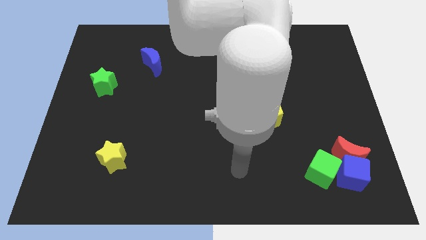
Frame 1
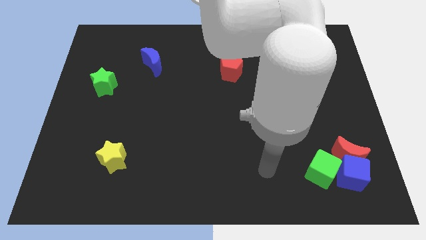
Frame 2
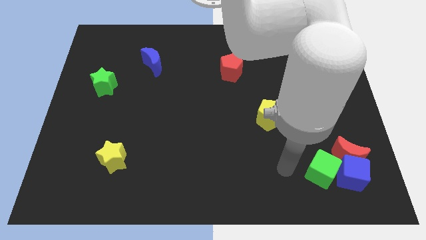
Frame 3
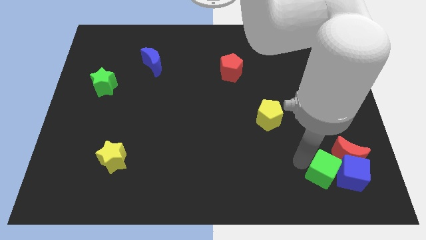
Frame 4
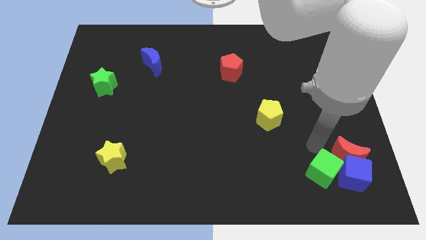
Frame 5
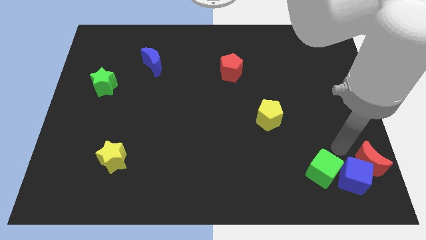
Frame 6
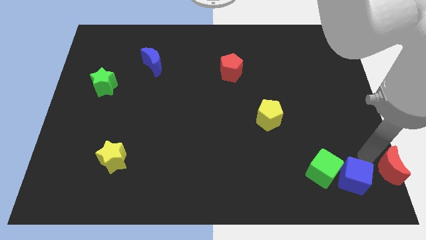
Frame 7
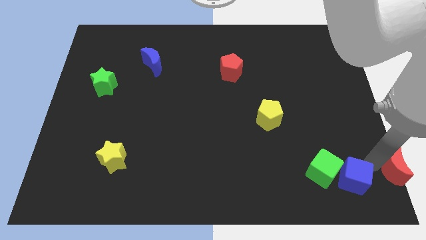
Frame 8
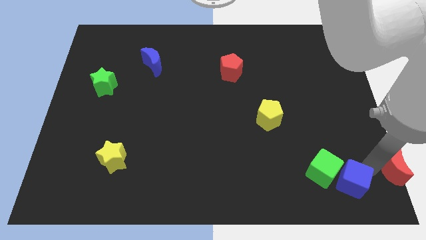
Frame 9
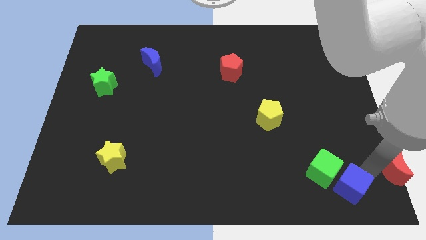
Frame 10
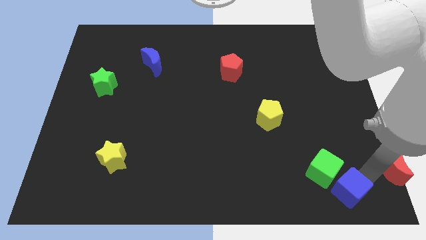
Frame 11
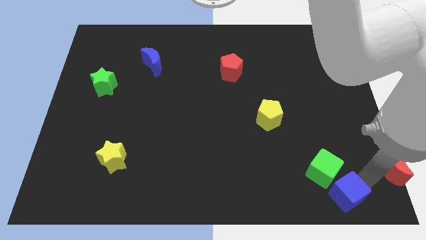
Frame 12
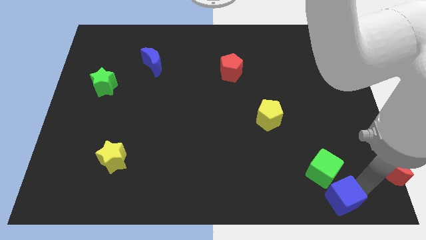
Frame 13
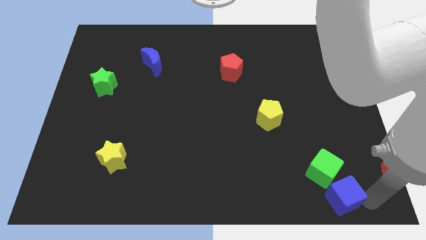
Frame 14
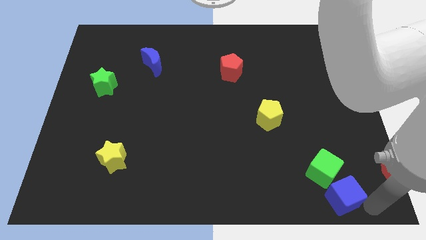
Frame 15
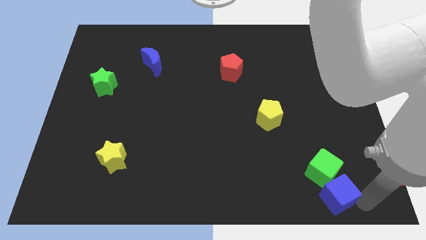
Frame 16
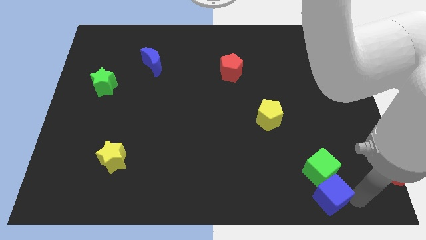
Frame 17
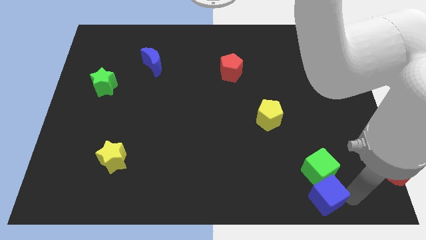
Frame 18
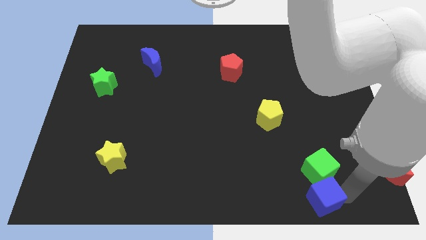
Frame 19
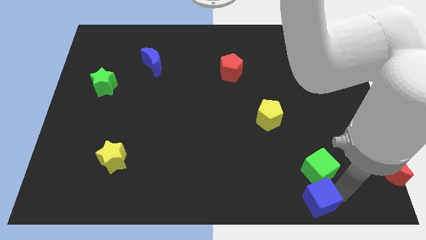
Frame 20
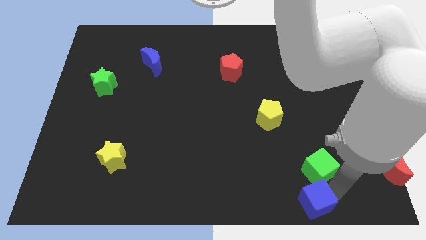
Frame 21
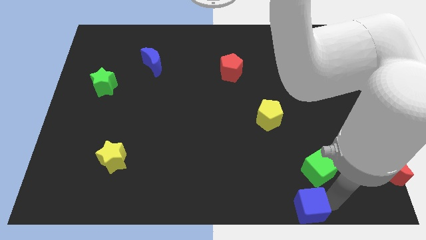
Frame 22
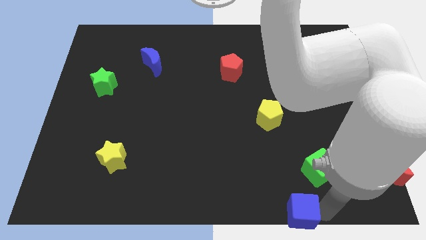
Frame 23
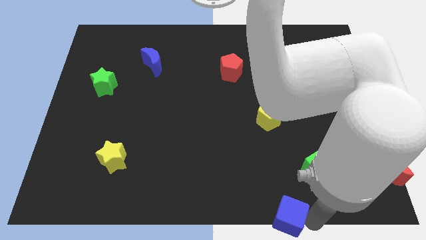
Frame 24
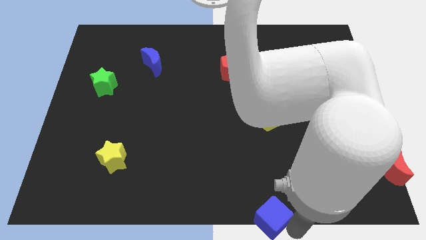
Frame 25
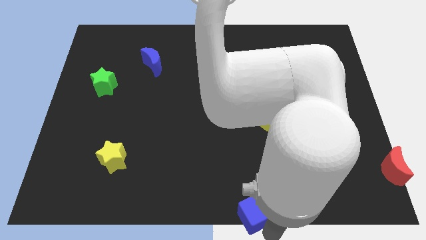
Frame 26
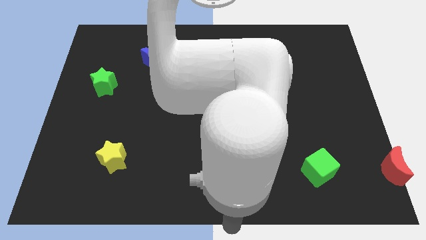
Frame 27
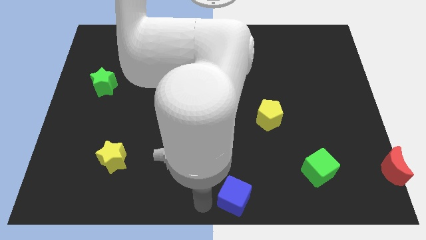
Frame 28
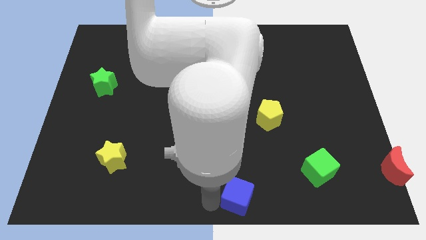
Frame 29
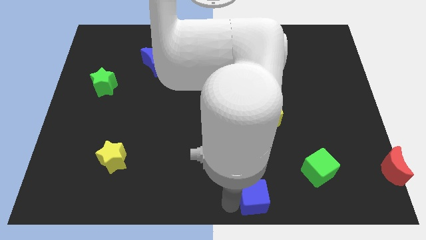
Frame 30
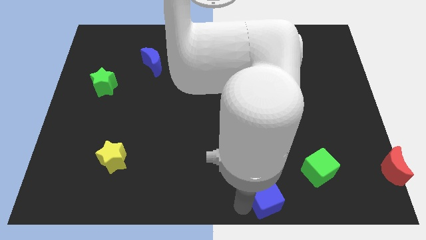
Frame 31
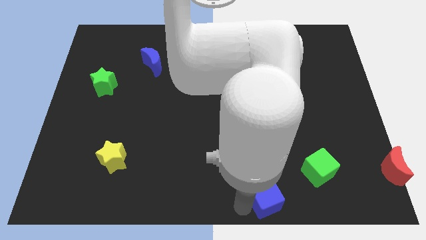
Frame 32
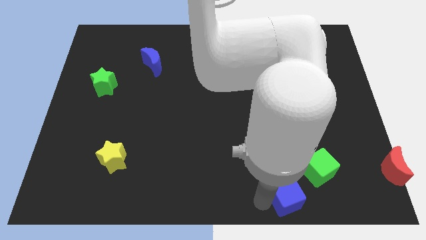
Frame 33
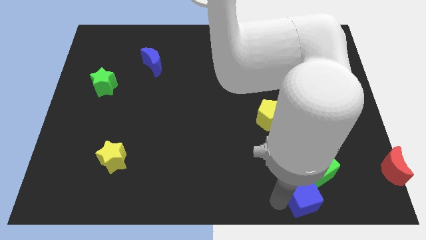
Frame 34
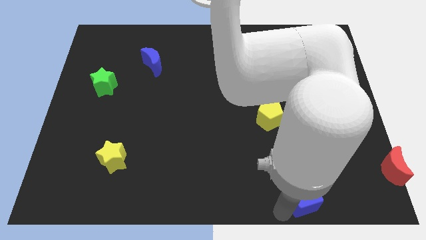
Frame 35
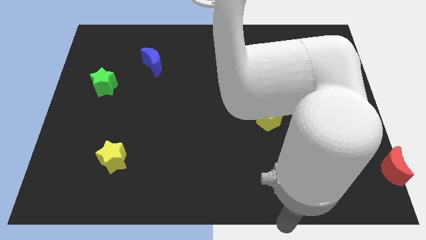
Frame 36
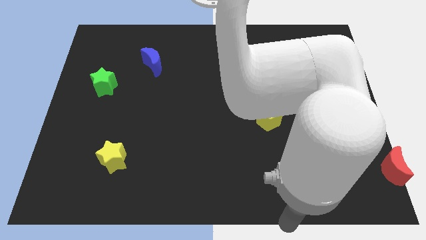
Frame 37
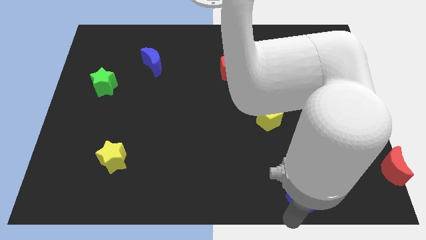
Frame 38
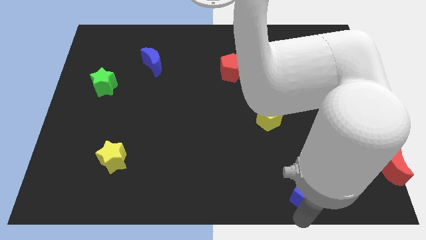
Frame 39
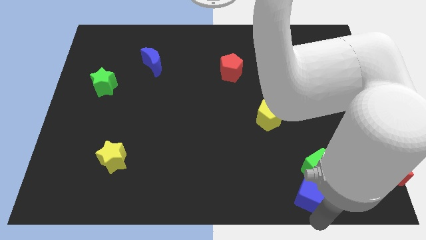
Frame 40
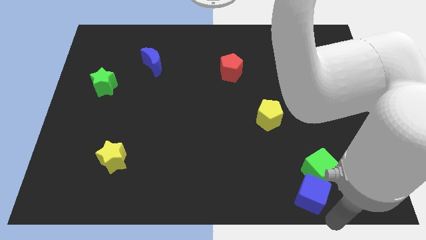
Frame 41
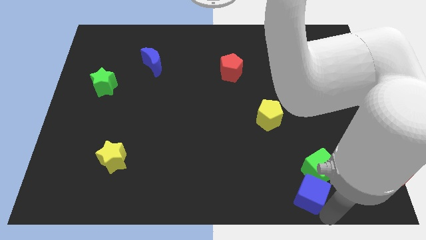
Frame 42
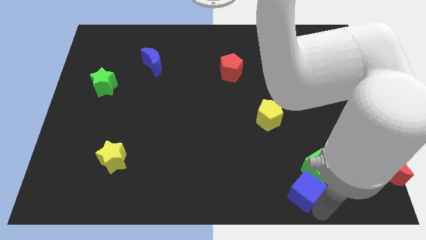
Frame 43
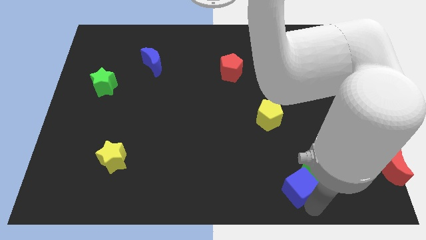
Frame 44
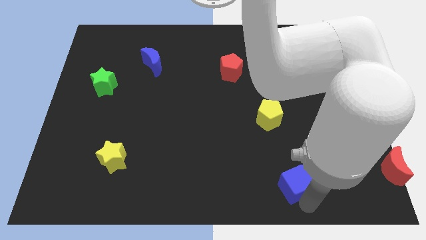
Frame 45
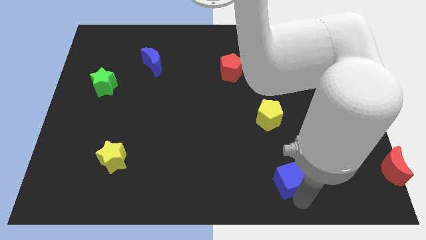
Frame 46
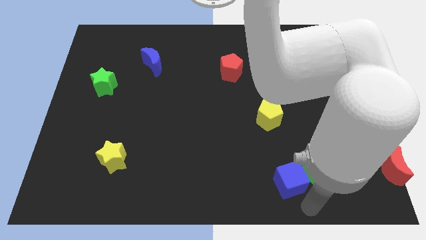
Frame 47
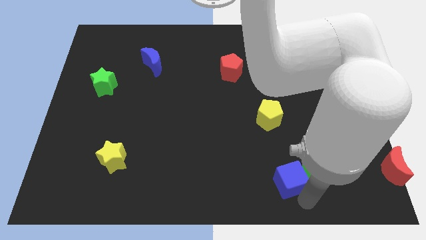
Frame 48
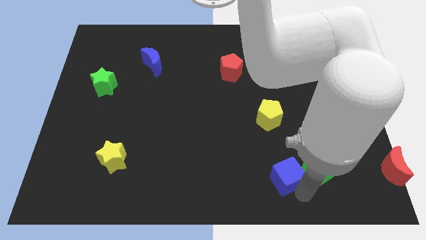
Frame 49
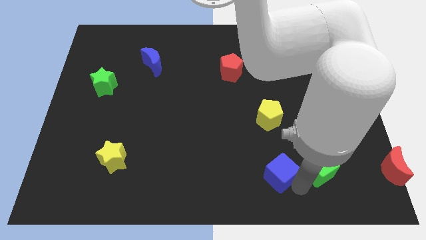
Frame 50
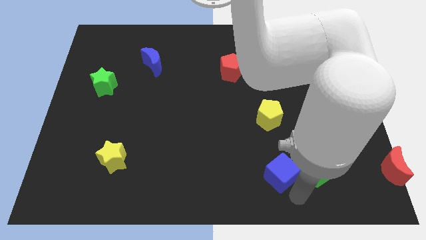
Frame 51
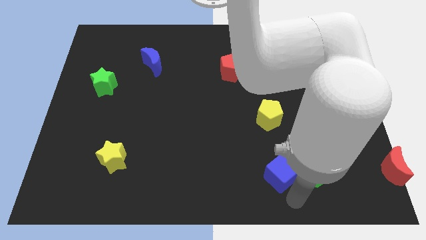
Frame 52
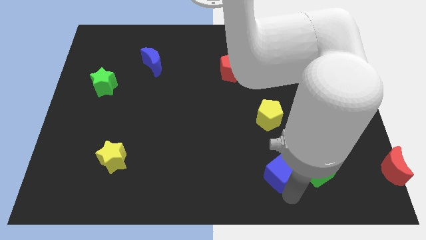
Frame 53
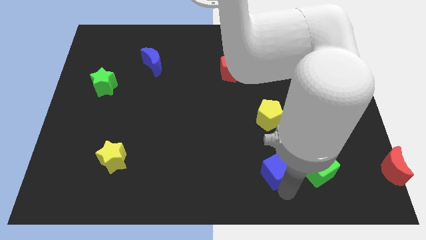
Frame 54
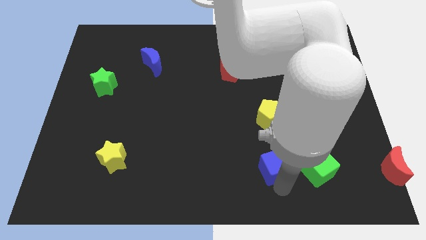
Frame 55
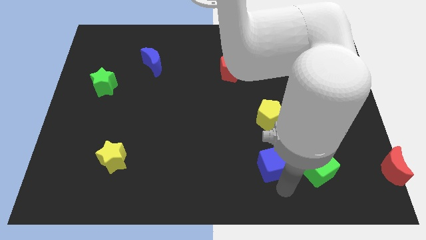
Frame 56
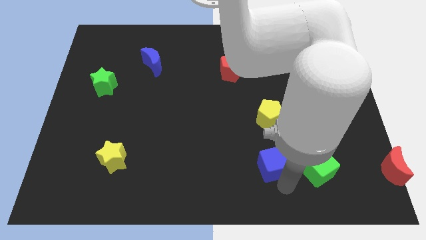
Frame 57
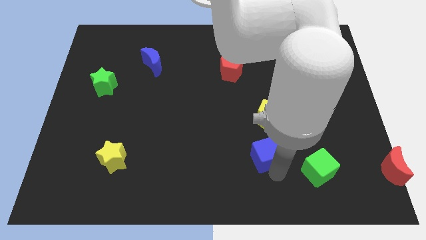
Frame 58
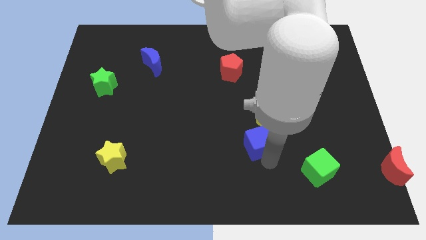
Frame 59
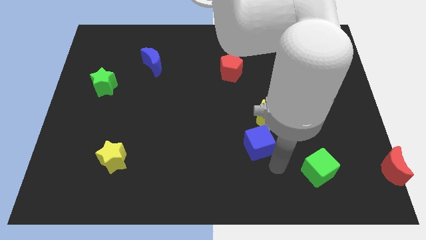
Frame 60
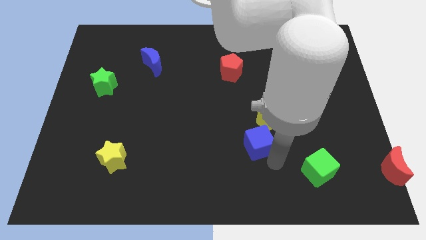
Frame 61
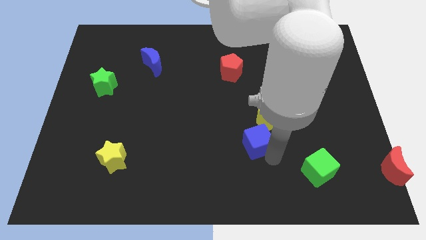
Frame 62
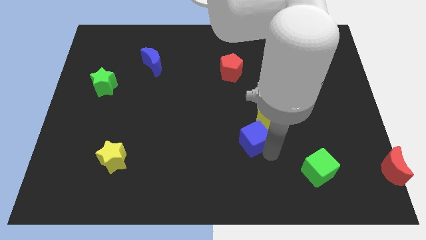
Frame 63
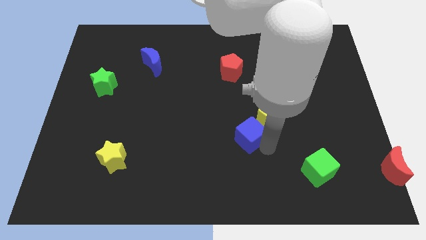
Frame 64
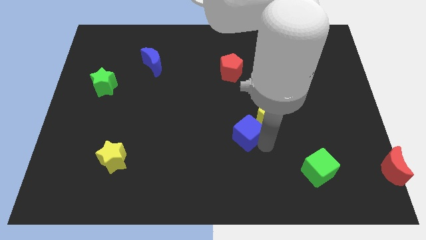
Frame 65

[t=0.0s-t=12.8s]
slide the blue cube to the middle of the board
